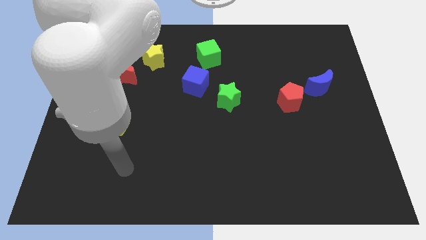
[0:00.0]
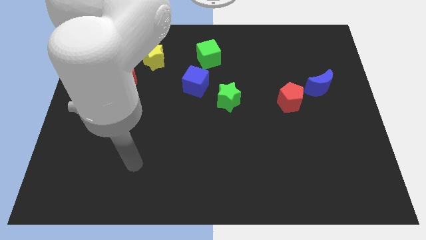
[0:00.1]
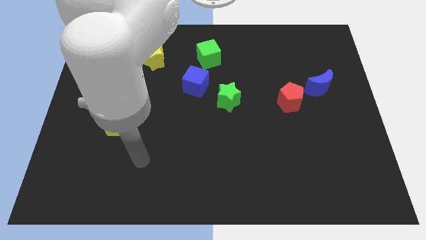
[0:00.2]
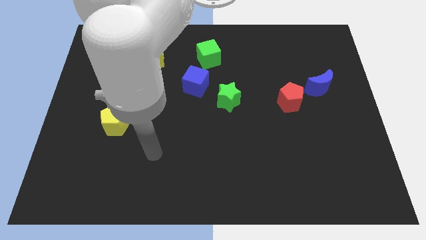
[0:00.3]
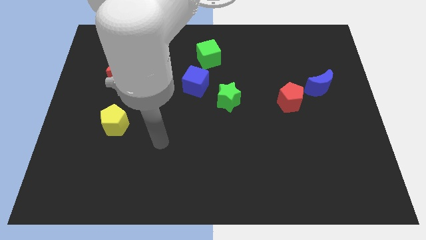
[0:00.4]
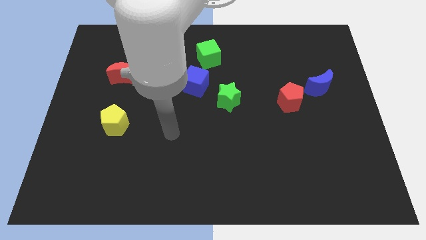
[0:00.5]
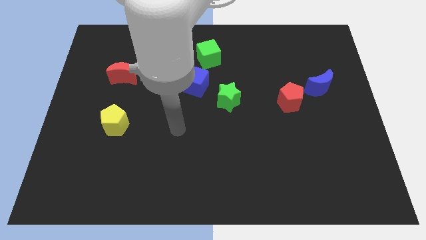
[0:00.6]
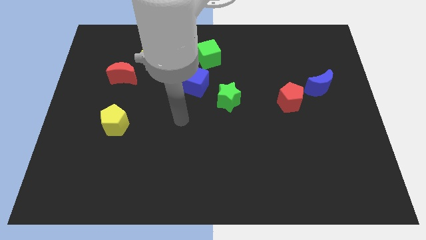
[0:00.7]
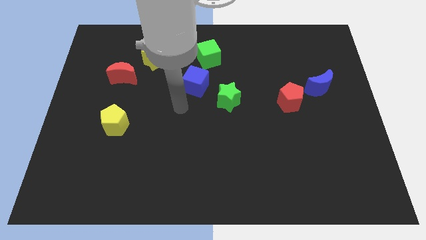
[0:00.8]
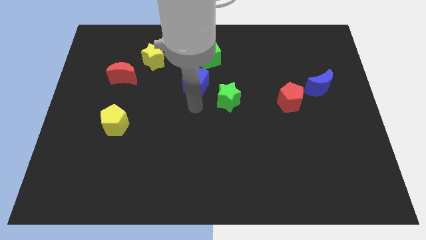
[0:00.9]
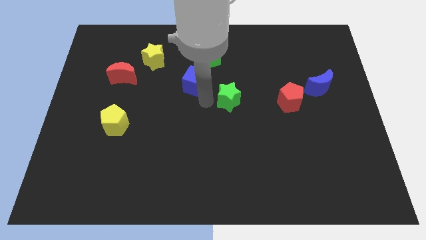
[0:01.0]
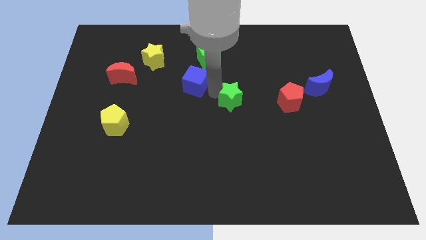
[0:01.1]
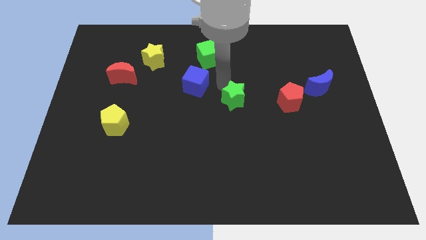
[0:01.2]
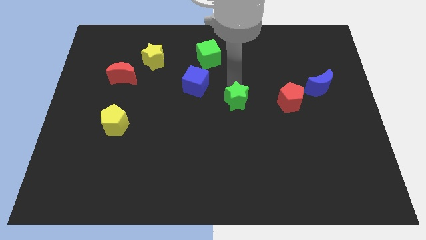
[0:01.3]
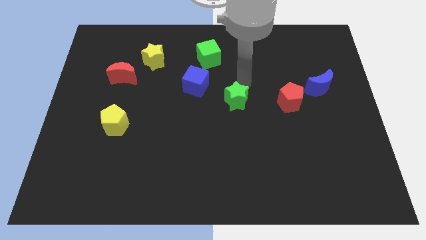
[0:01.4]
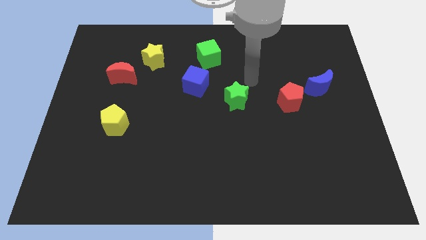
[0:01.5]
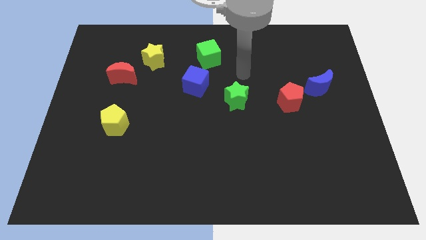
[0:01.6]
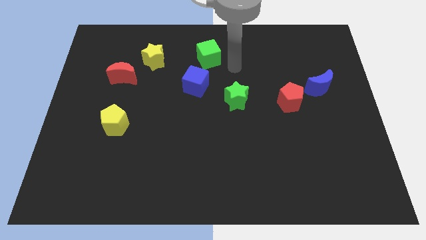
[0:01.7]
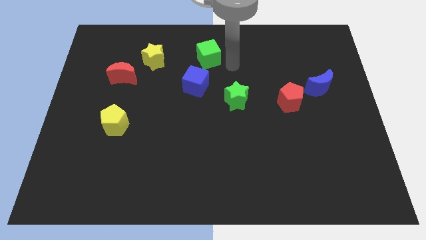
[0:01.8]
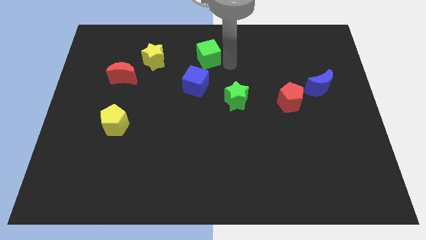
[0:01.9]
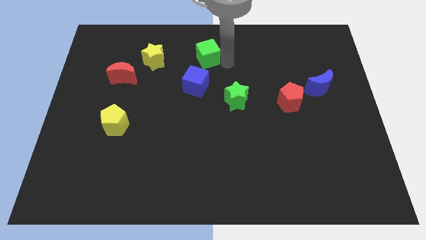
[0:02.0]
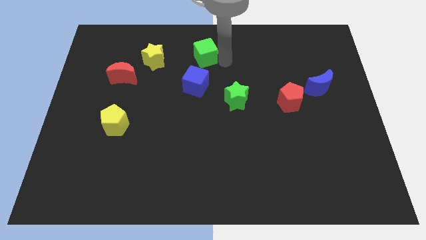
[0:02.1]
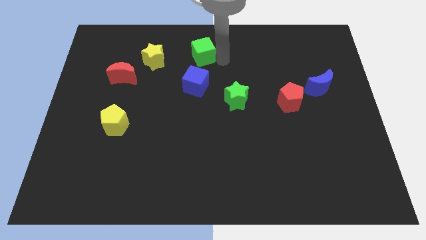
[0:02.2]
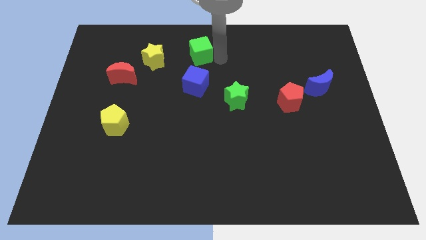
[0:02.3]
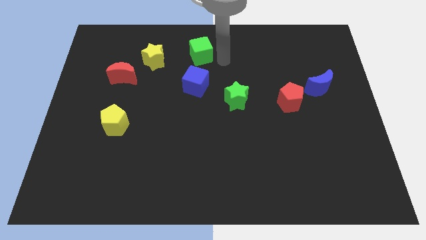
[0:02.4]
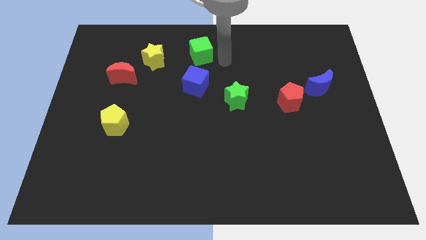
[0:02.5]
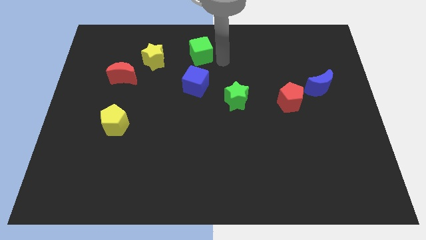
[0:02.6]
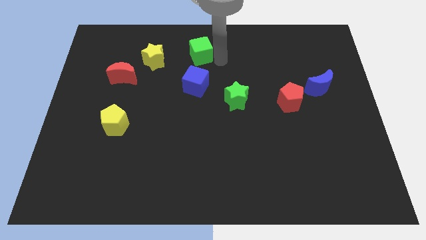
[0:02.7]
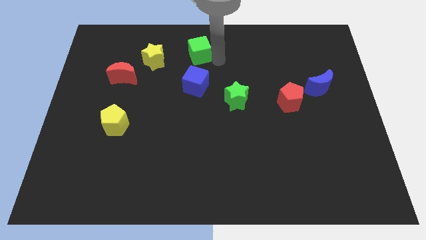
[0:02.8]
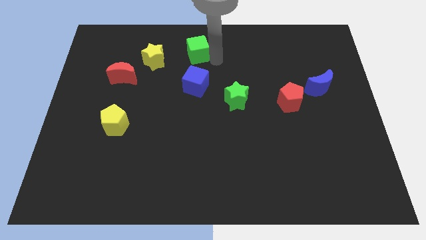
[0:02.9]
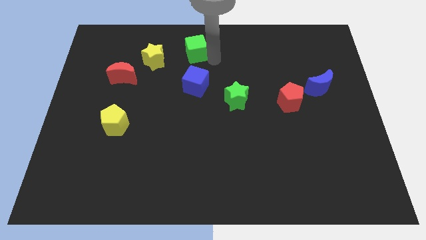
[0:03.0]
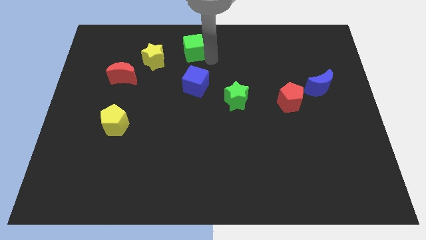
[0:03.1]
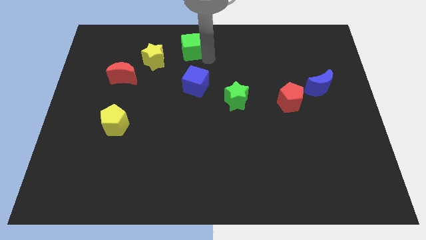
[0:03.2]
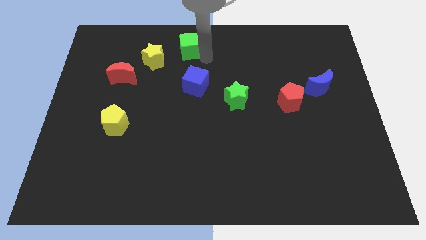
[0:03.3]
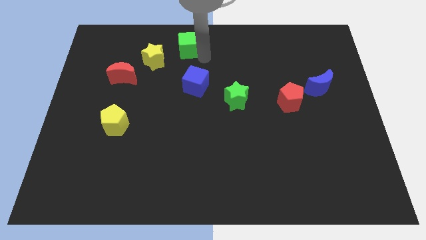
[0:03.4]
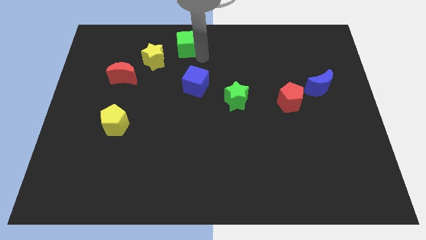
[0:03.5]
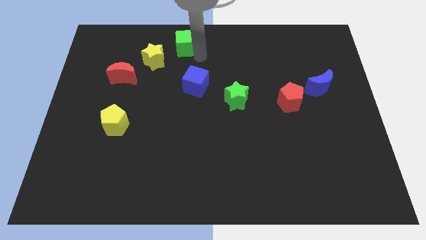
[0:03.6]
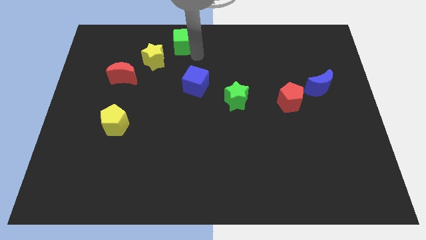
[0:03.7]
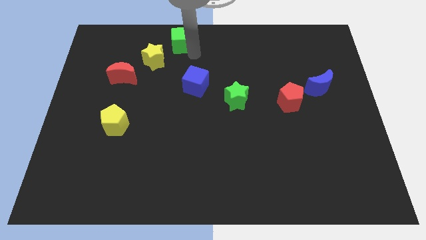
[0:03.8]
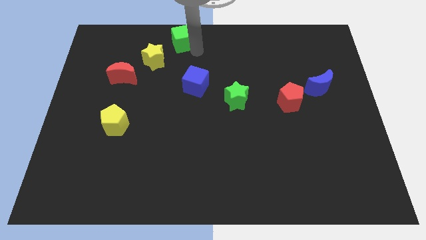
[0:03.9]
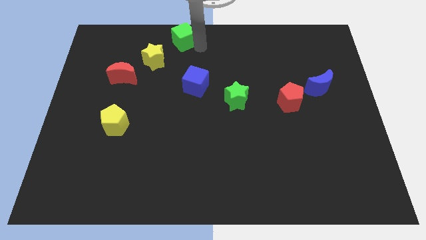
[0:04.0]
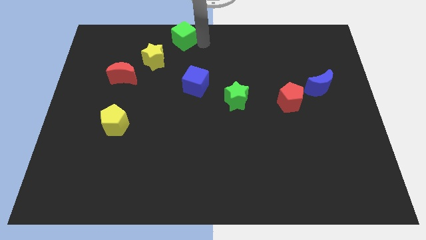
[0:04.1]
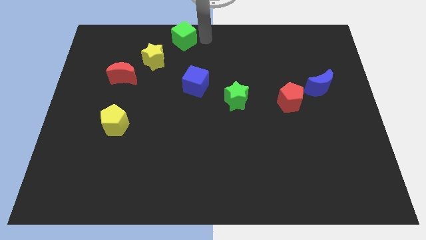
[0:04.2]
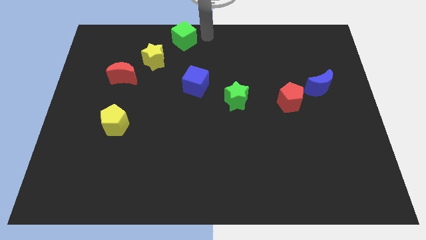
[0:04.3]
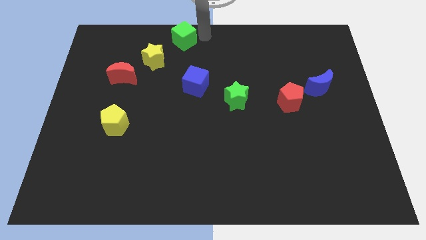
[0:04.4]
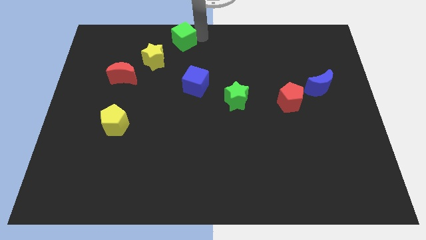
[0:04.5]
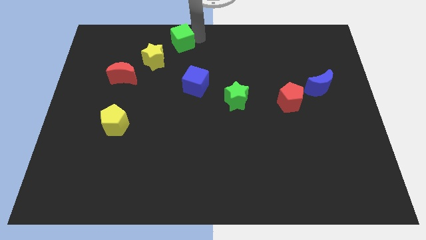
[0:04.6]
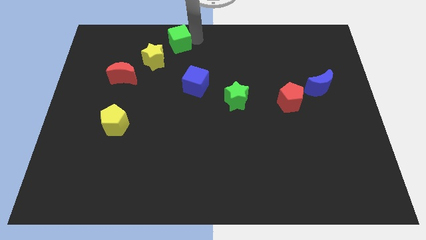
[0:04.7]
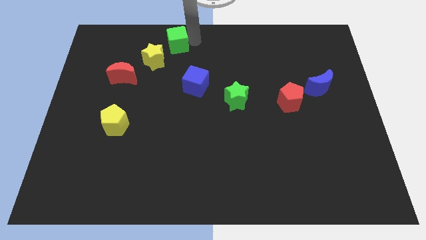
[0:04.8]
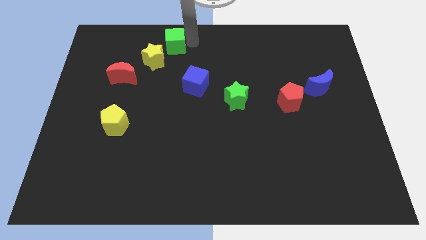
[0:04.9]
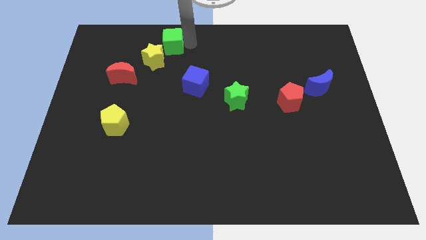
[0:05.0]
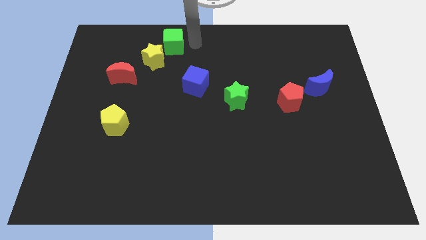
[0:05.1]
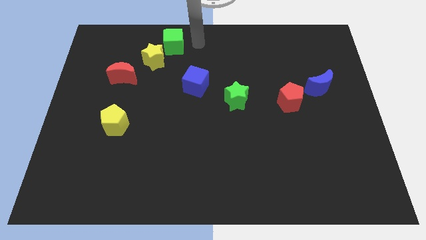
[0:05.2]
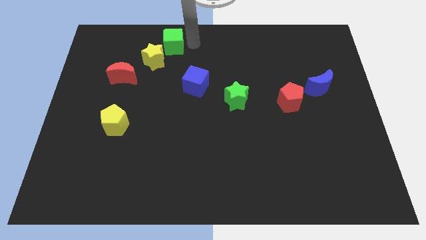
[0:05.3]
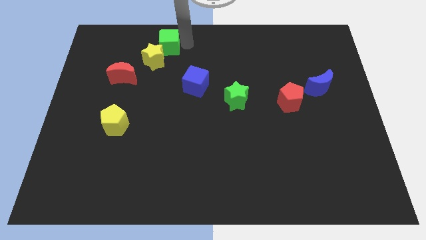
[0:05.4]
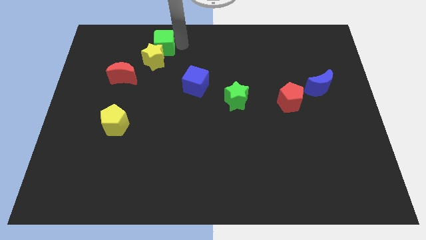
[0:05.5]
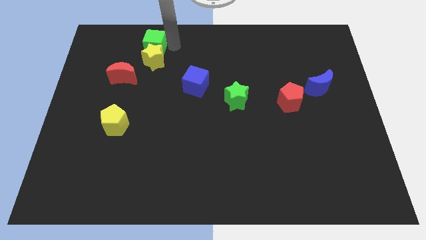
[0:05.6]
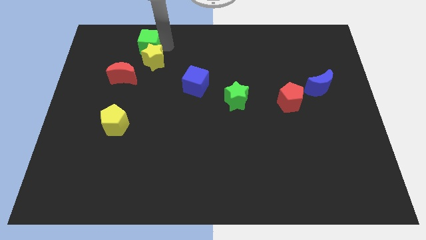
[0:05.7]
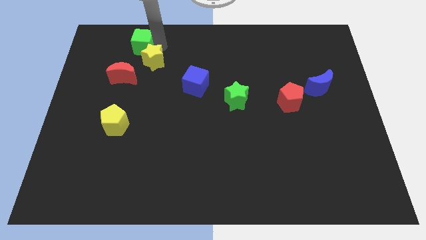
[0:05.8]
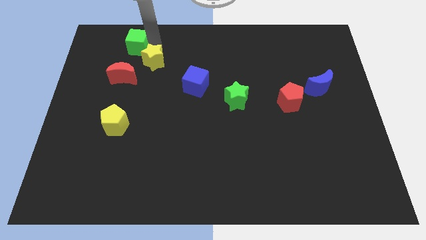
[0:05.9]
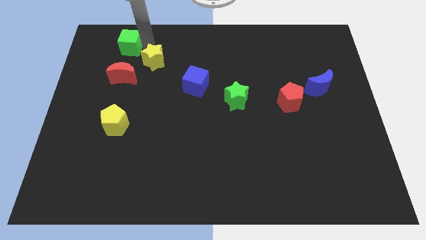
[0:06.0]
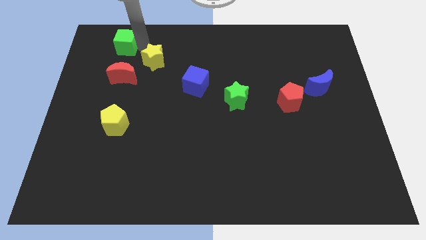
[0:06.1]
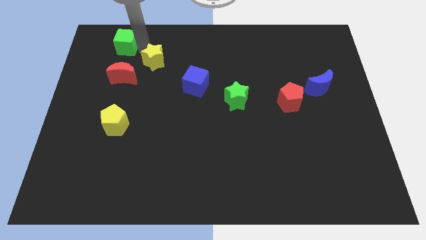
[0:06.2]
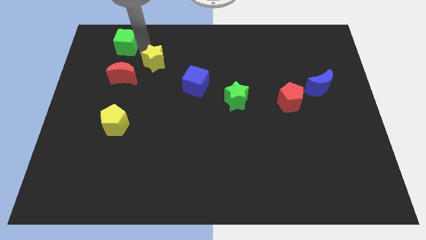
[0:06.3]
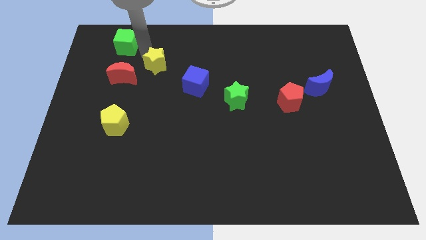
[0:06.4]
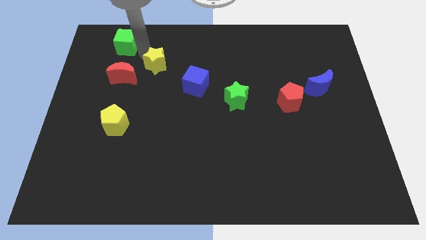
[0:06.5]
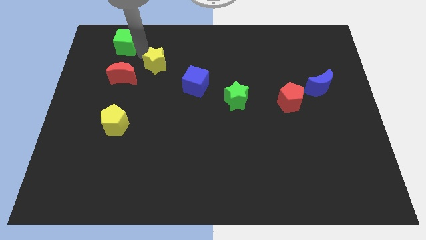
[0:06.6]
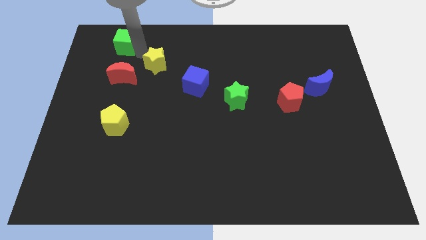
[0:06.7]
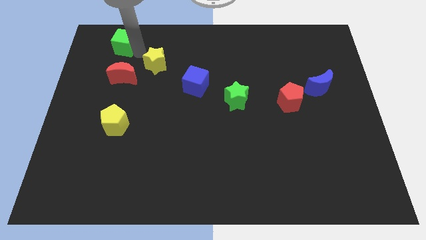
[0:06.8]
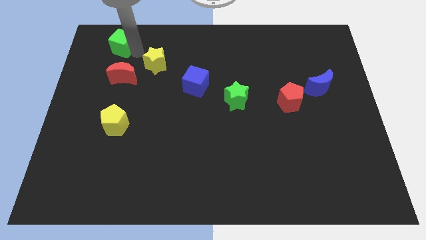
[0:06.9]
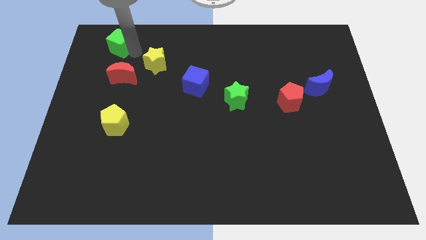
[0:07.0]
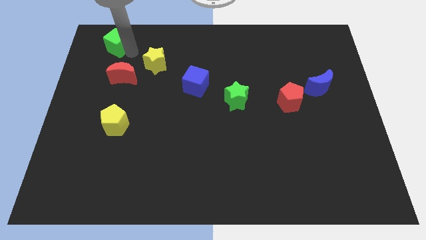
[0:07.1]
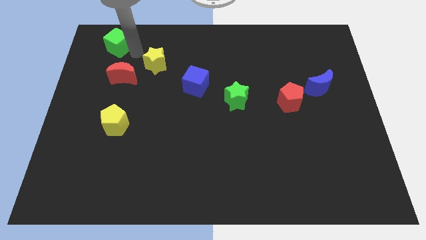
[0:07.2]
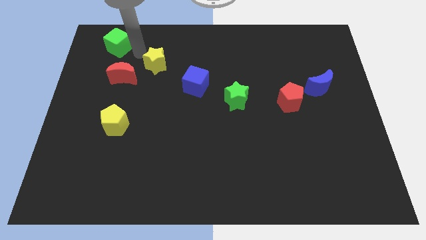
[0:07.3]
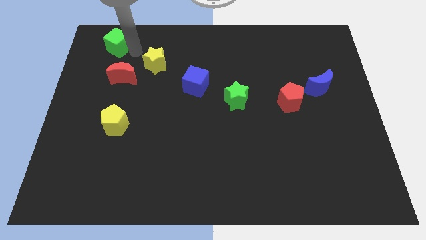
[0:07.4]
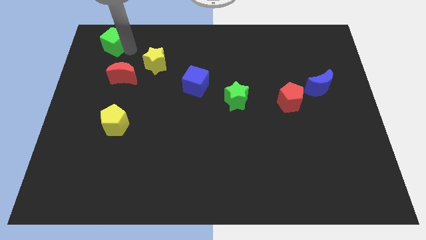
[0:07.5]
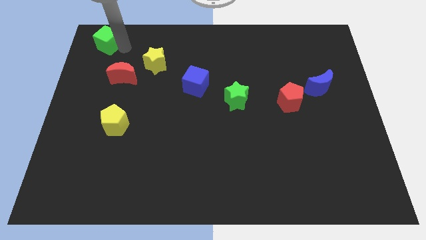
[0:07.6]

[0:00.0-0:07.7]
slide the green cube to the top left corner
